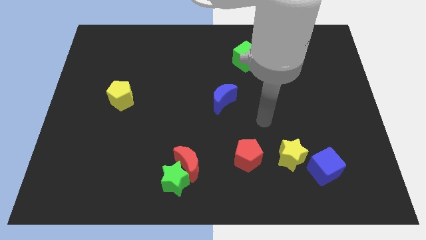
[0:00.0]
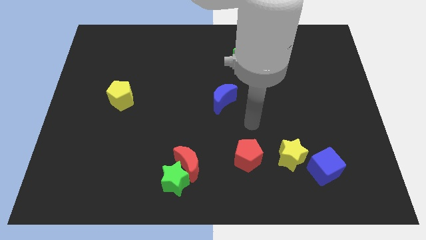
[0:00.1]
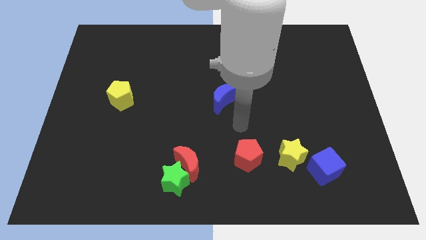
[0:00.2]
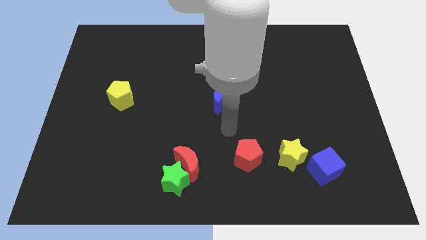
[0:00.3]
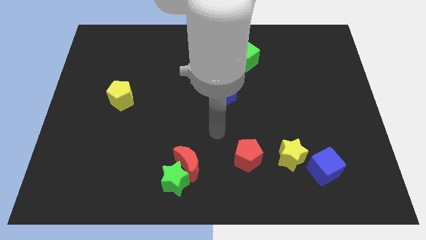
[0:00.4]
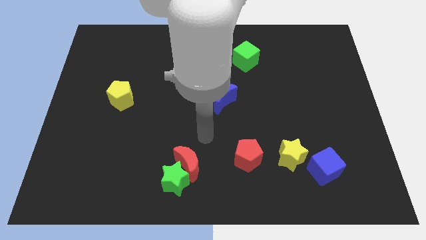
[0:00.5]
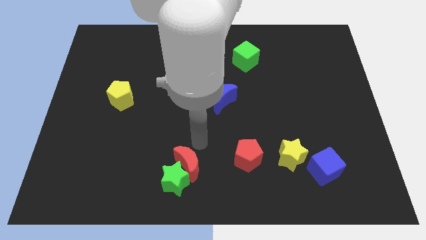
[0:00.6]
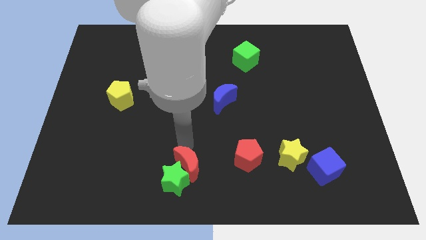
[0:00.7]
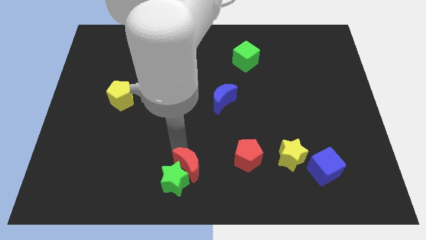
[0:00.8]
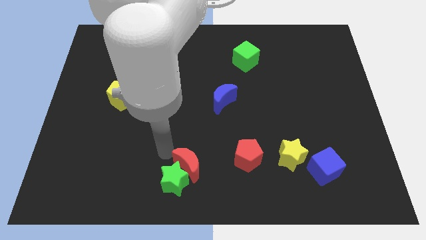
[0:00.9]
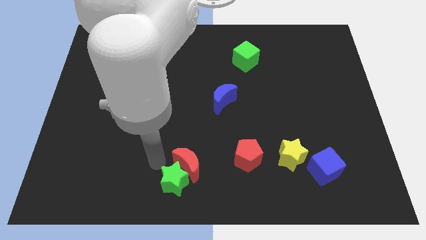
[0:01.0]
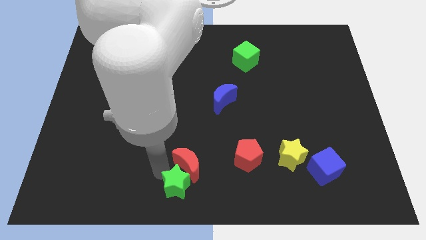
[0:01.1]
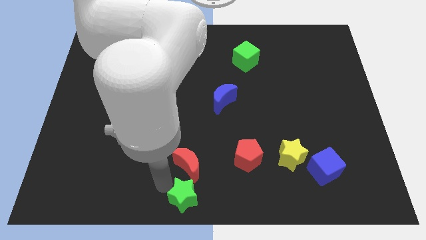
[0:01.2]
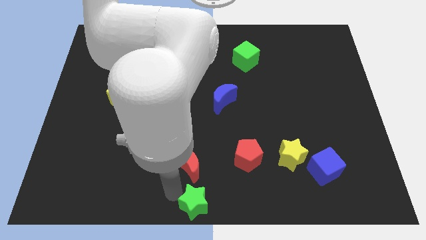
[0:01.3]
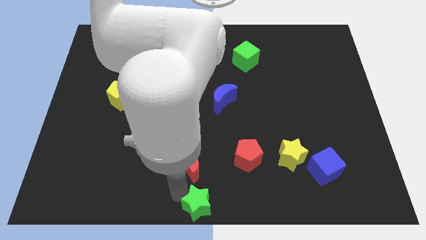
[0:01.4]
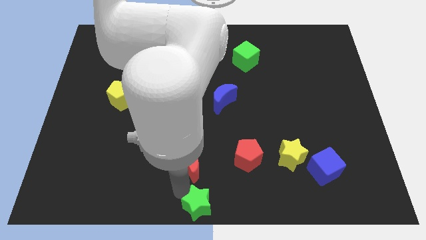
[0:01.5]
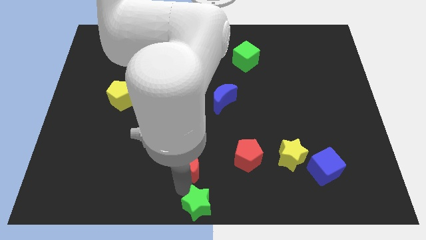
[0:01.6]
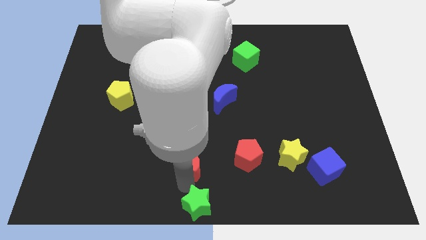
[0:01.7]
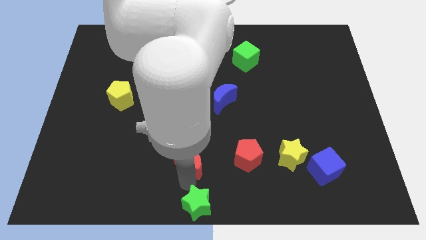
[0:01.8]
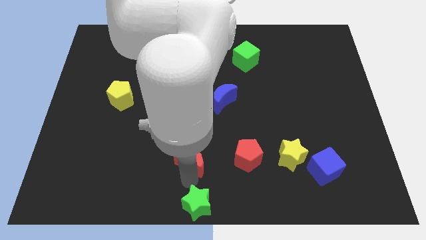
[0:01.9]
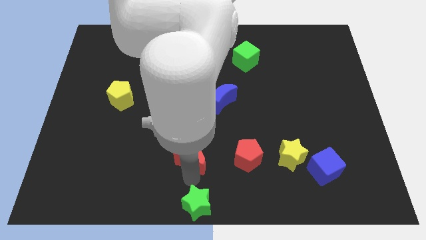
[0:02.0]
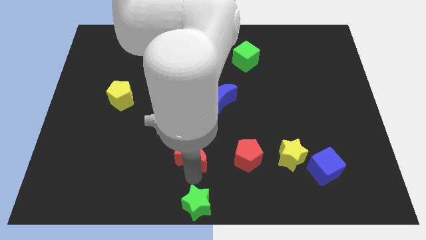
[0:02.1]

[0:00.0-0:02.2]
pull the red moon apart from the green star

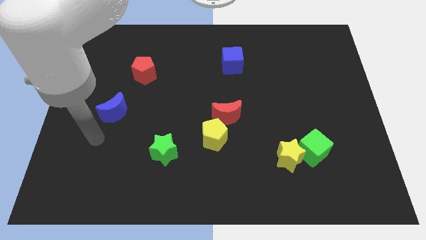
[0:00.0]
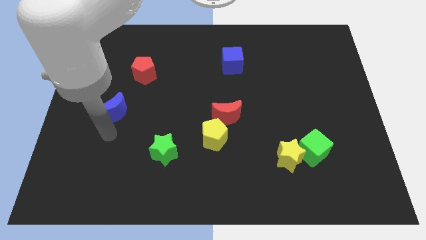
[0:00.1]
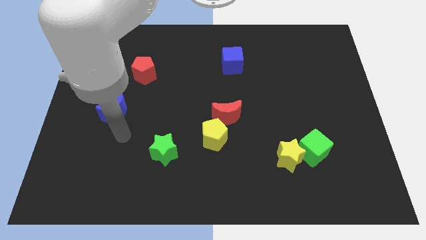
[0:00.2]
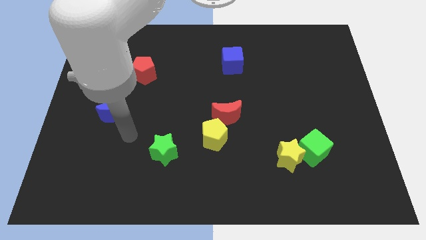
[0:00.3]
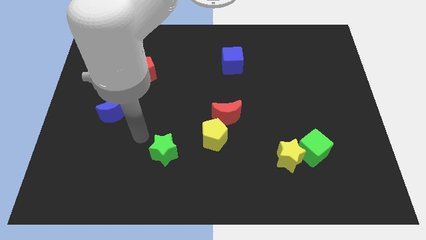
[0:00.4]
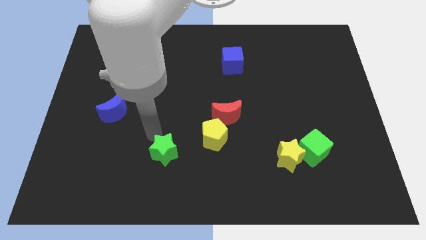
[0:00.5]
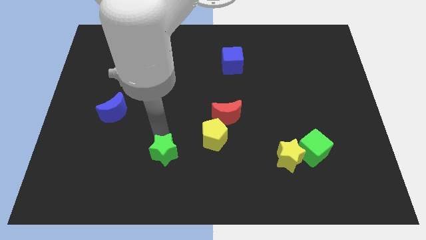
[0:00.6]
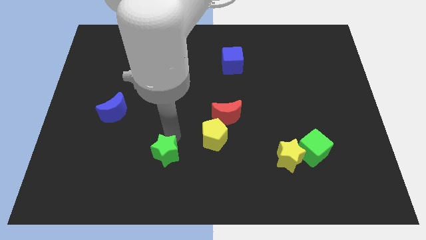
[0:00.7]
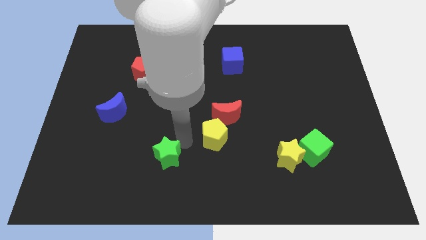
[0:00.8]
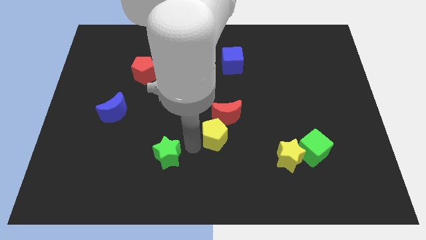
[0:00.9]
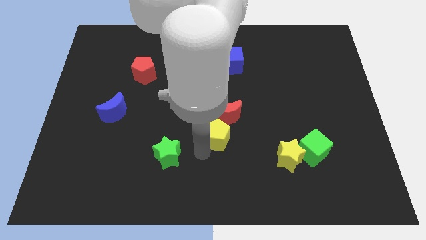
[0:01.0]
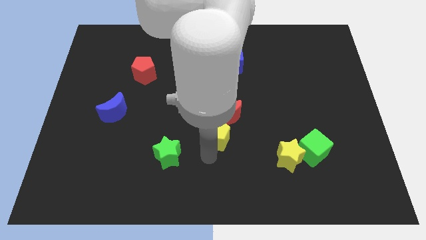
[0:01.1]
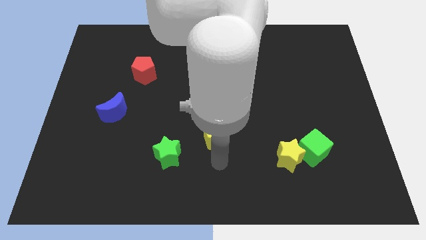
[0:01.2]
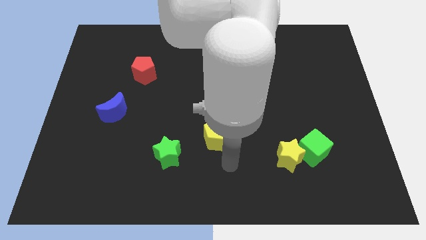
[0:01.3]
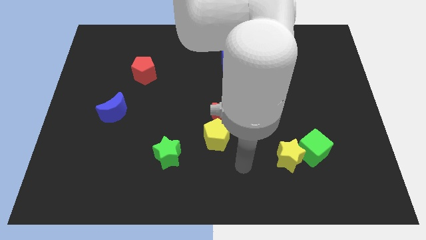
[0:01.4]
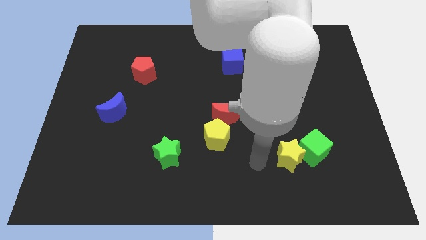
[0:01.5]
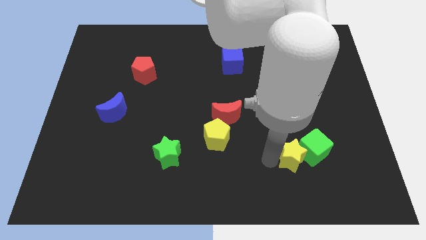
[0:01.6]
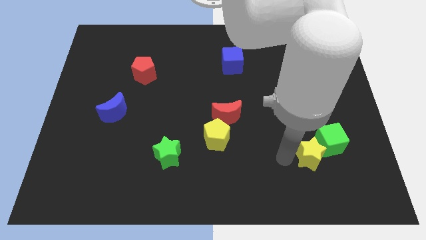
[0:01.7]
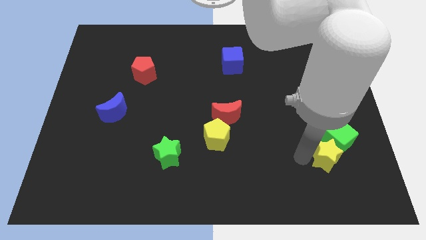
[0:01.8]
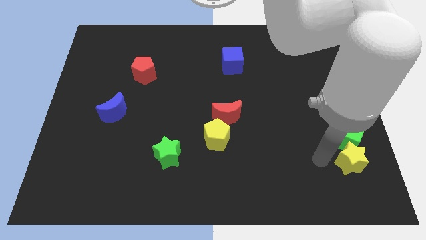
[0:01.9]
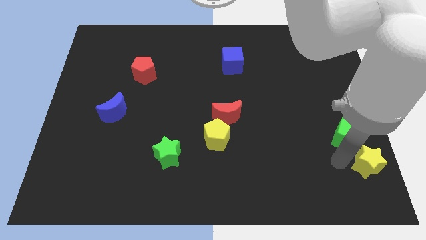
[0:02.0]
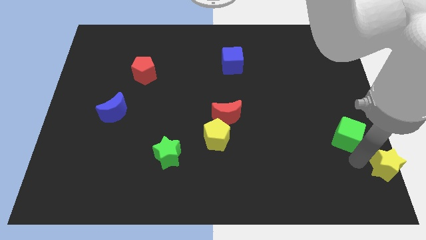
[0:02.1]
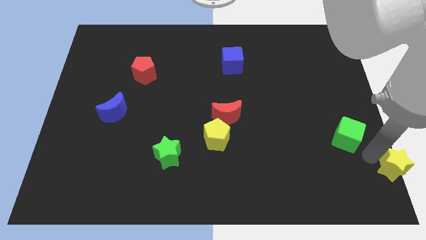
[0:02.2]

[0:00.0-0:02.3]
pull the green cube apart from the yellow star

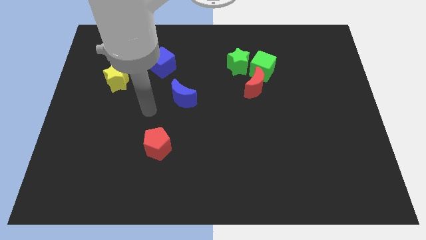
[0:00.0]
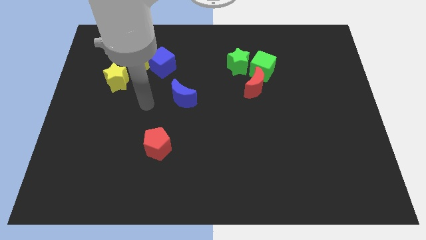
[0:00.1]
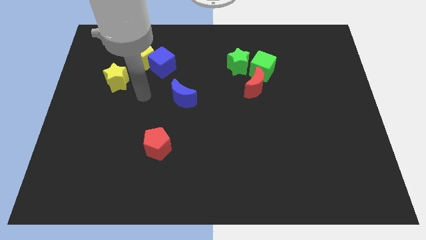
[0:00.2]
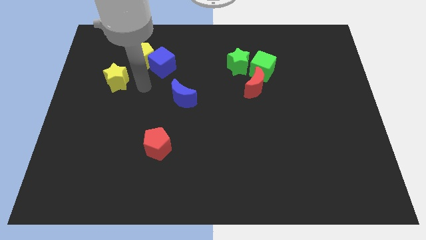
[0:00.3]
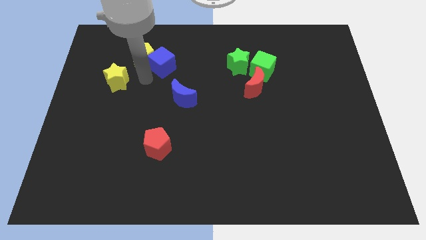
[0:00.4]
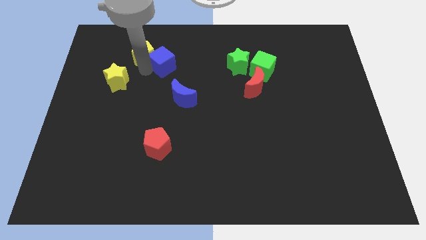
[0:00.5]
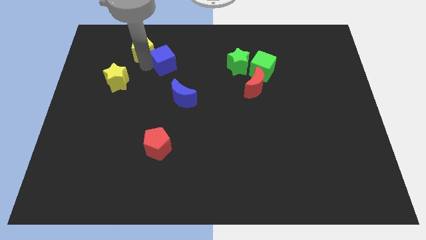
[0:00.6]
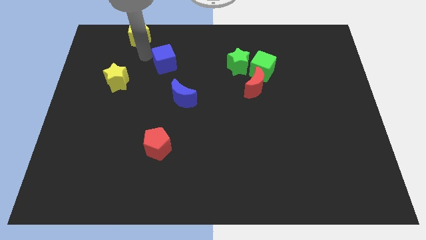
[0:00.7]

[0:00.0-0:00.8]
separate the blue cube from the yellow pentagon

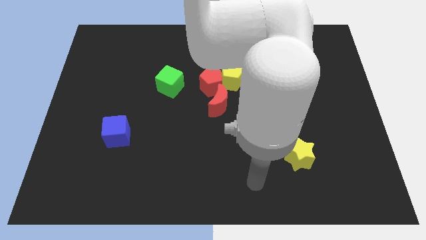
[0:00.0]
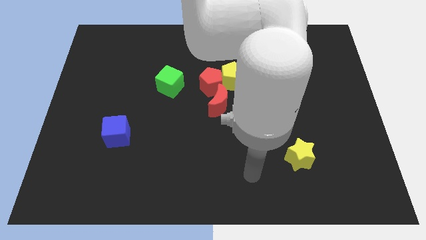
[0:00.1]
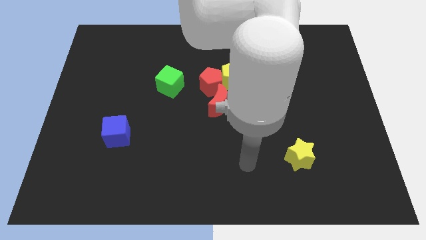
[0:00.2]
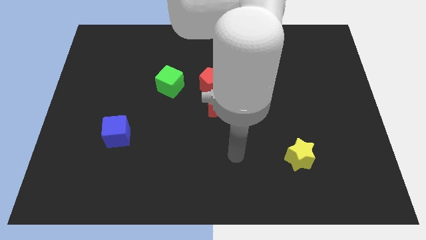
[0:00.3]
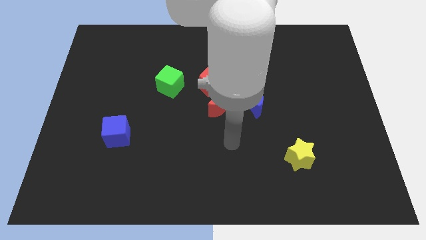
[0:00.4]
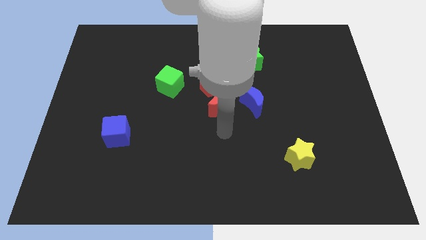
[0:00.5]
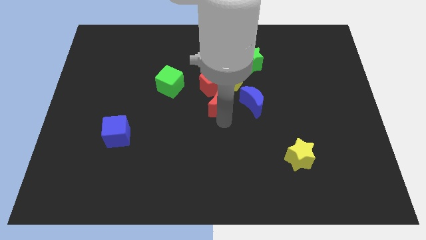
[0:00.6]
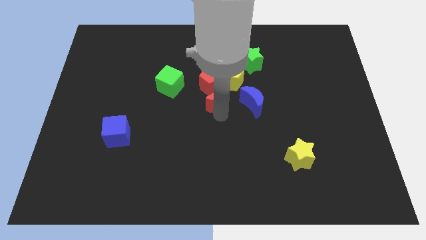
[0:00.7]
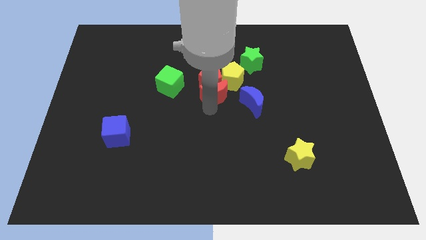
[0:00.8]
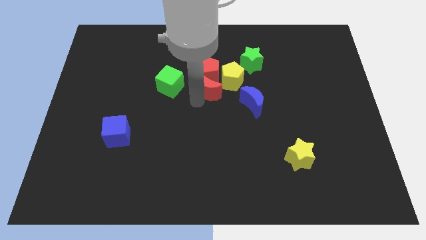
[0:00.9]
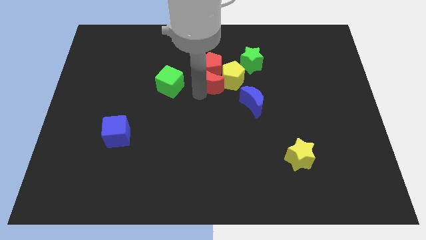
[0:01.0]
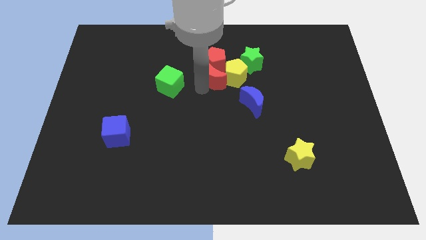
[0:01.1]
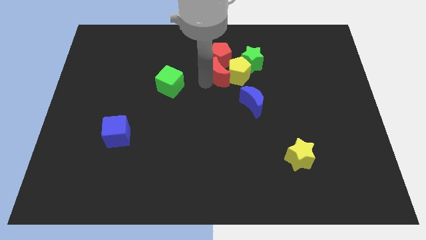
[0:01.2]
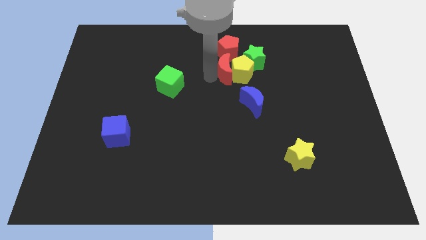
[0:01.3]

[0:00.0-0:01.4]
move the red pentagon away from the clump

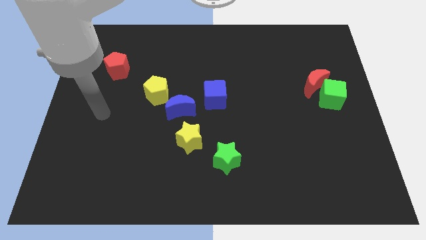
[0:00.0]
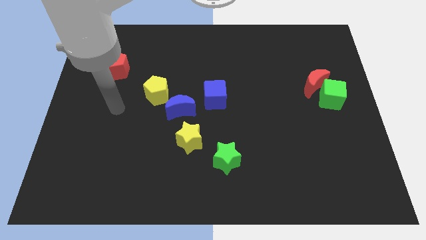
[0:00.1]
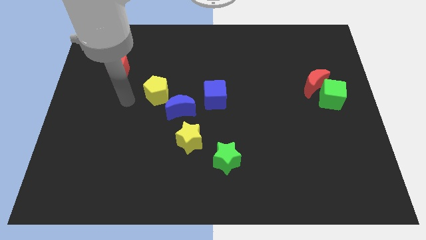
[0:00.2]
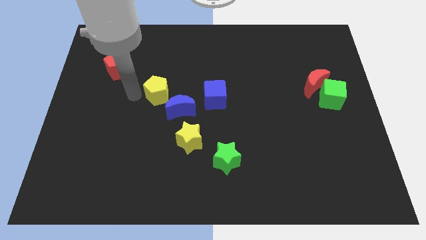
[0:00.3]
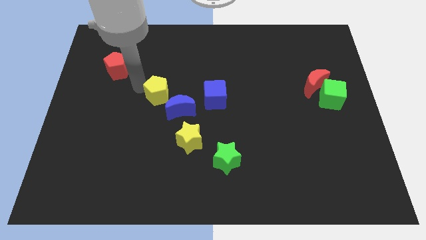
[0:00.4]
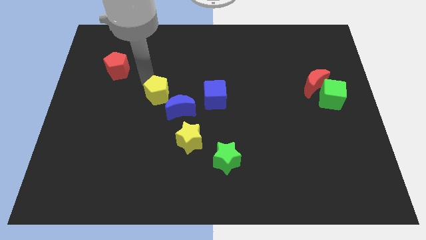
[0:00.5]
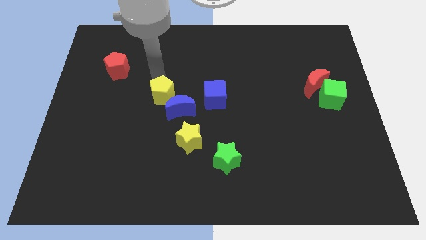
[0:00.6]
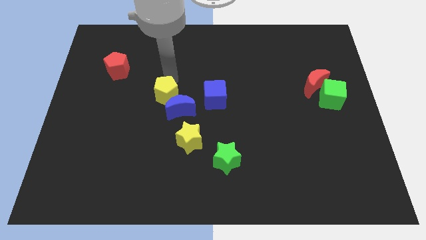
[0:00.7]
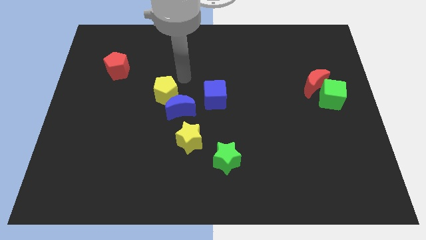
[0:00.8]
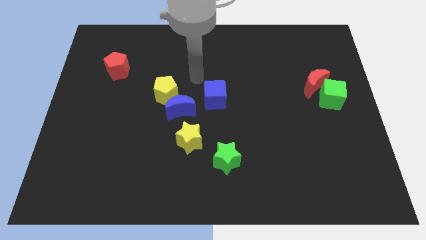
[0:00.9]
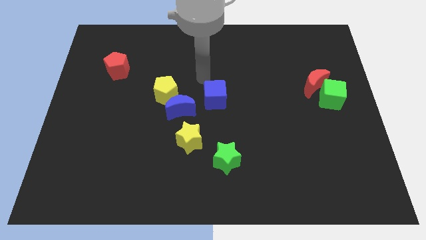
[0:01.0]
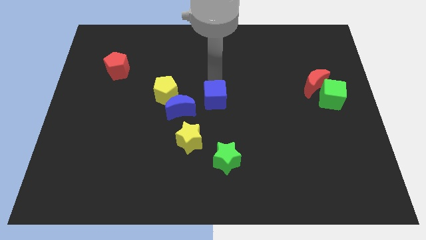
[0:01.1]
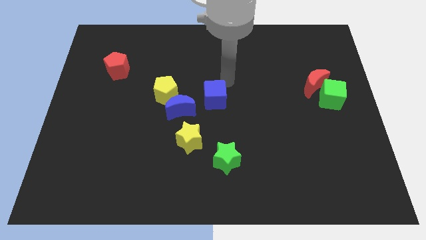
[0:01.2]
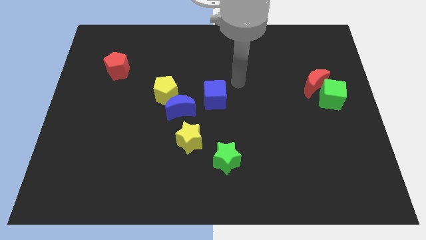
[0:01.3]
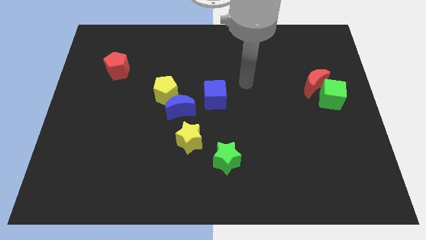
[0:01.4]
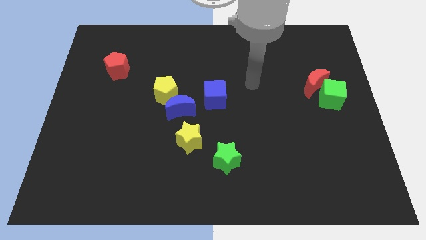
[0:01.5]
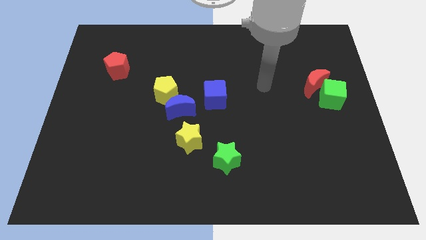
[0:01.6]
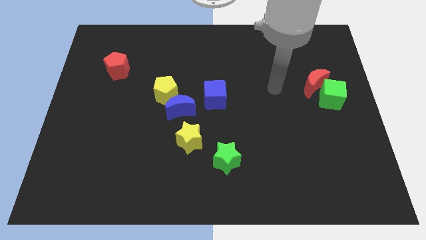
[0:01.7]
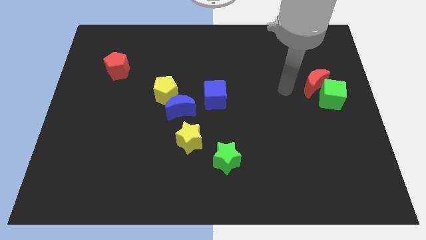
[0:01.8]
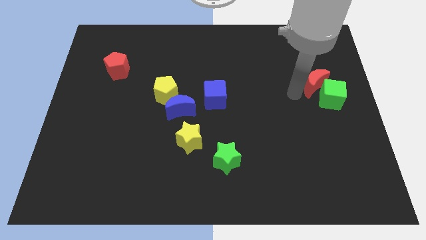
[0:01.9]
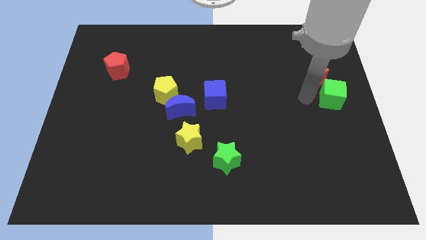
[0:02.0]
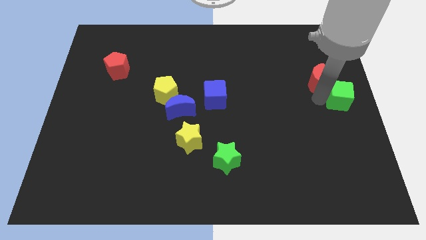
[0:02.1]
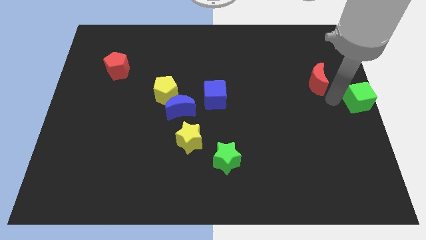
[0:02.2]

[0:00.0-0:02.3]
move the red moon away from the green cube

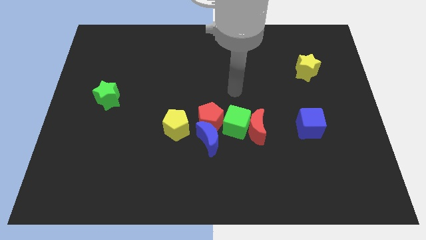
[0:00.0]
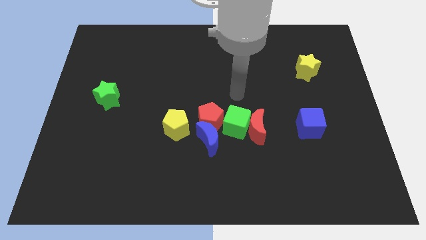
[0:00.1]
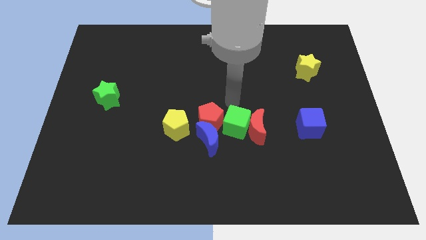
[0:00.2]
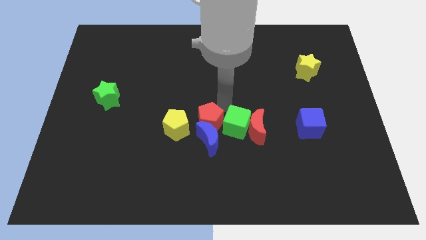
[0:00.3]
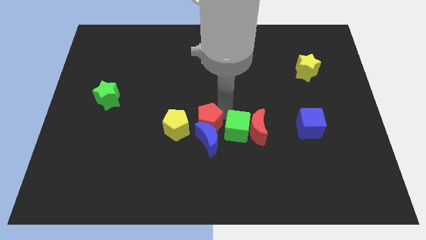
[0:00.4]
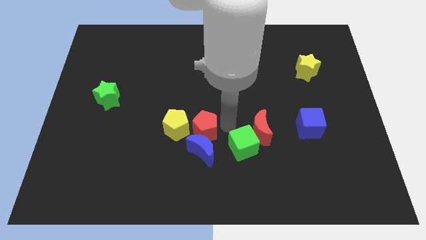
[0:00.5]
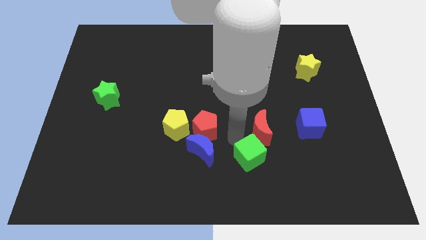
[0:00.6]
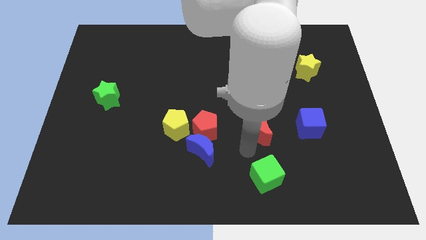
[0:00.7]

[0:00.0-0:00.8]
pull the red moon apart from the green cube
